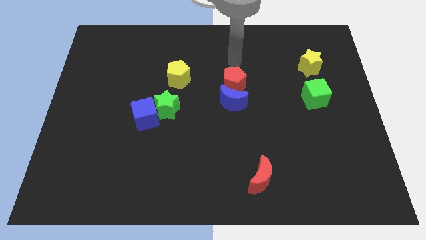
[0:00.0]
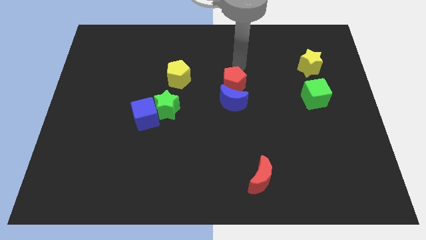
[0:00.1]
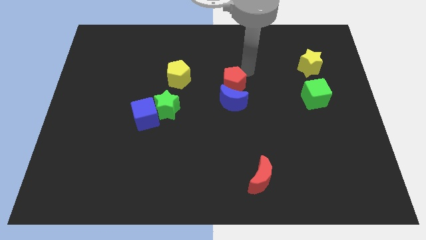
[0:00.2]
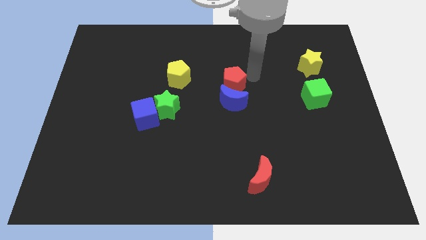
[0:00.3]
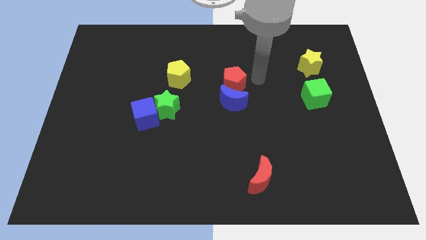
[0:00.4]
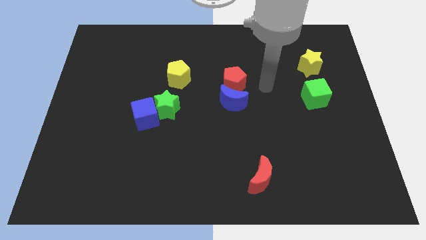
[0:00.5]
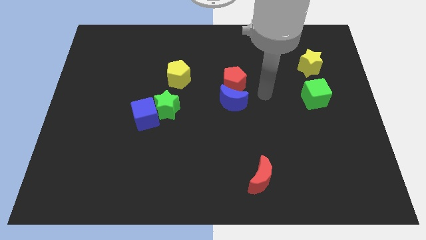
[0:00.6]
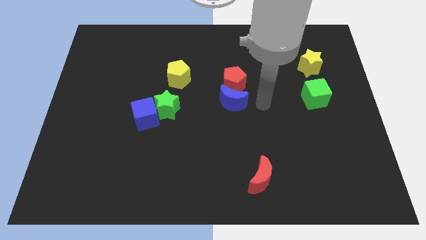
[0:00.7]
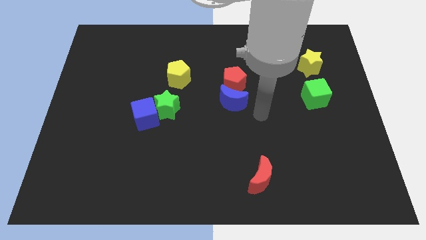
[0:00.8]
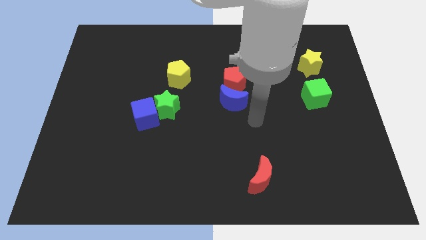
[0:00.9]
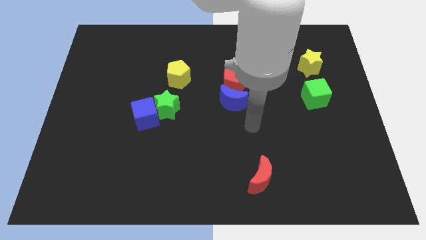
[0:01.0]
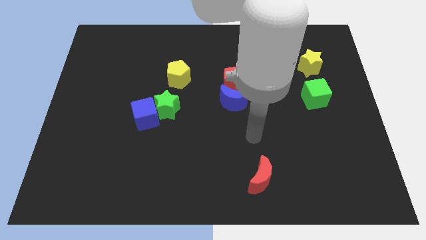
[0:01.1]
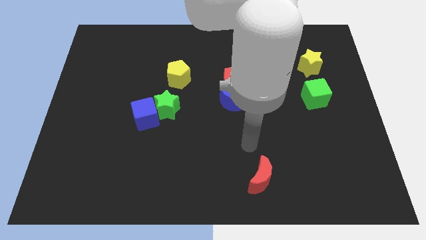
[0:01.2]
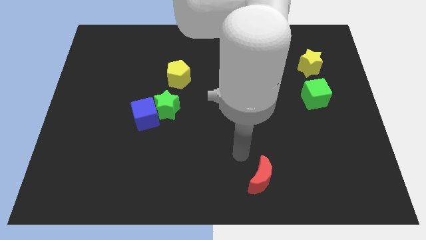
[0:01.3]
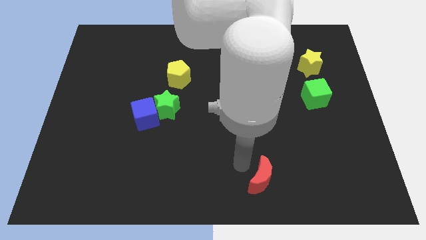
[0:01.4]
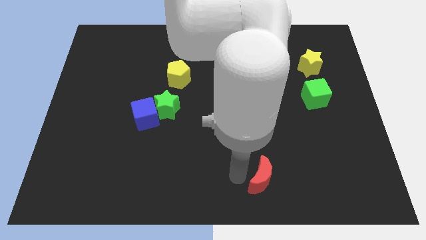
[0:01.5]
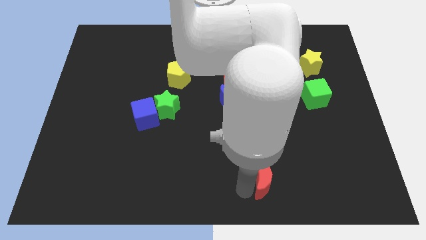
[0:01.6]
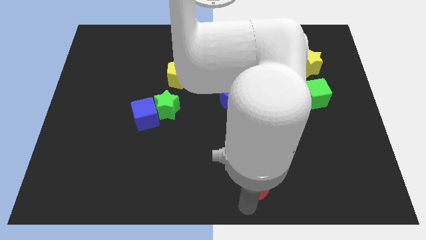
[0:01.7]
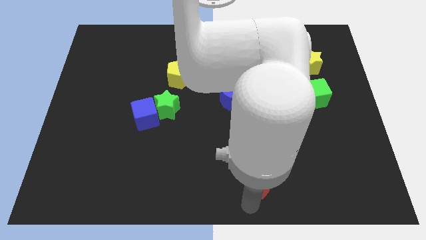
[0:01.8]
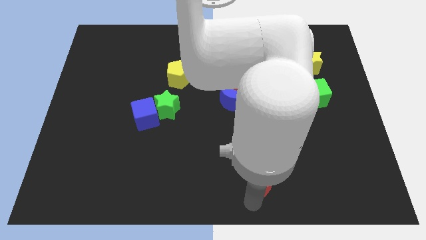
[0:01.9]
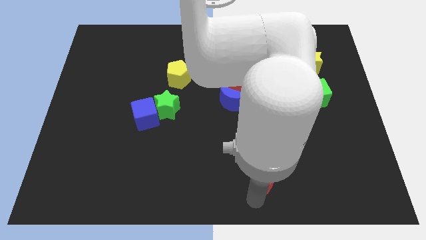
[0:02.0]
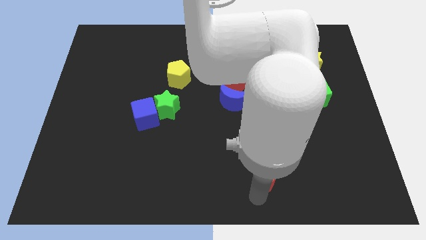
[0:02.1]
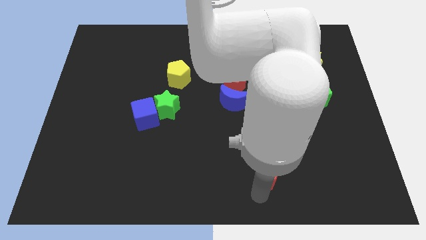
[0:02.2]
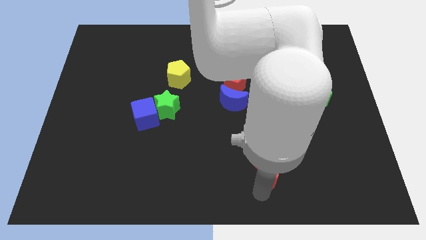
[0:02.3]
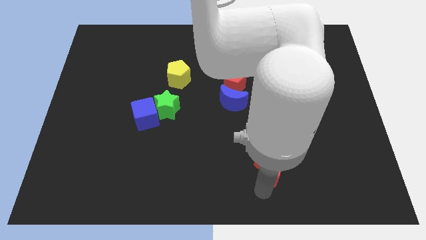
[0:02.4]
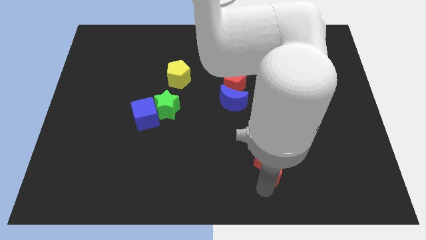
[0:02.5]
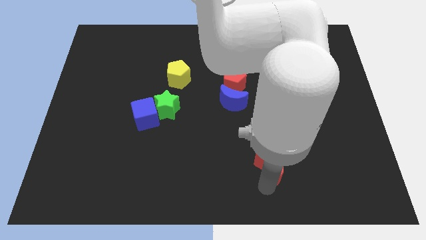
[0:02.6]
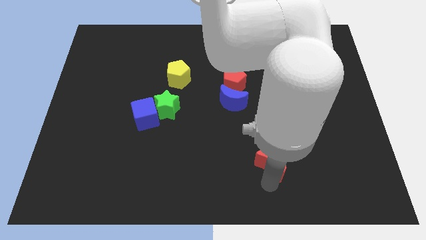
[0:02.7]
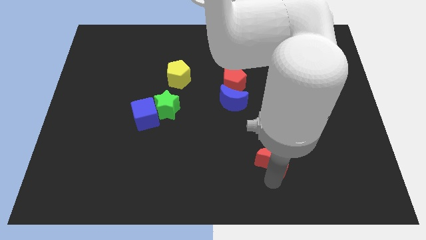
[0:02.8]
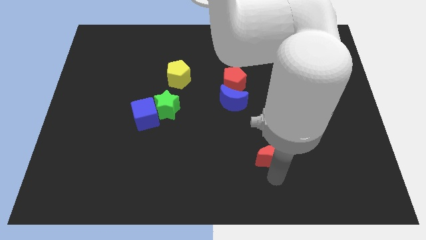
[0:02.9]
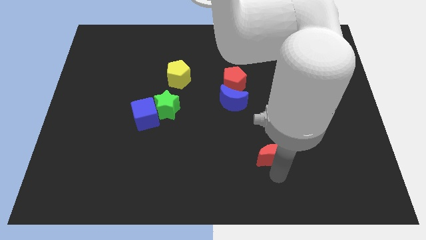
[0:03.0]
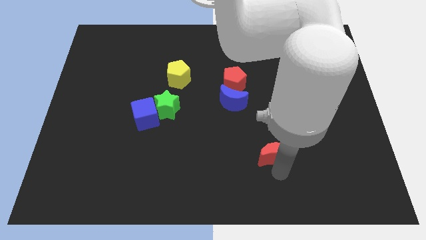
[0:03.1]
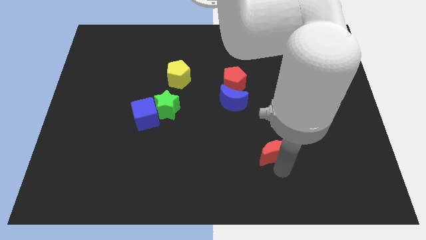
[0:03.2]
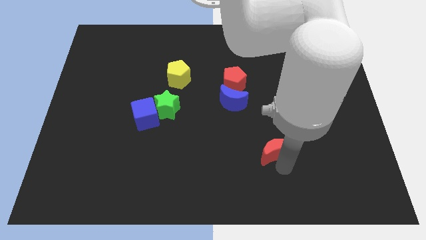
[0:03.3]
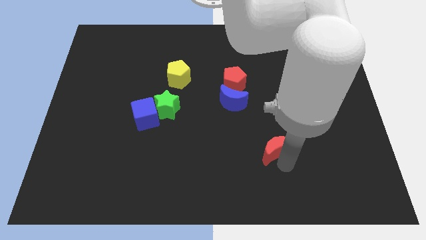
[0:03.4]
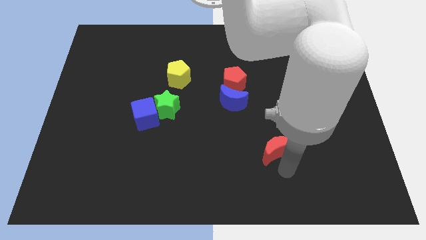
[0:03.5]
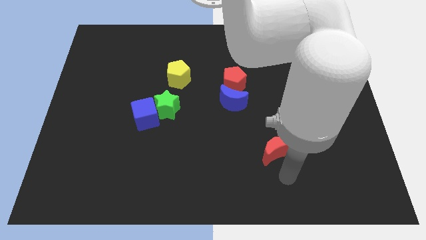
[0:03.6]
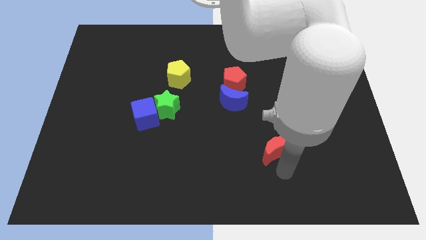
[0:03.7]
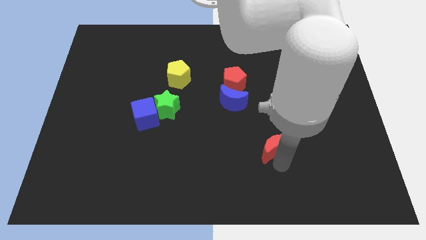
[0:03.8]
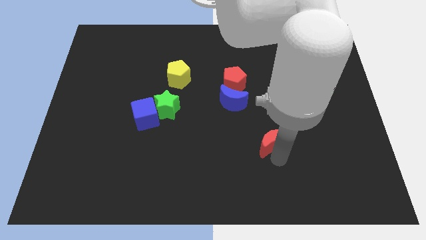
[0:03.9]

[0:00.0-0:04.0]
move the red moon somewhat upwards

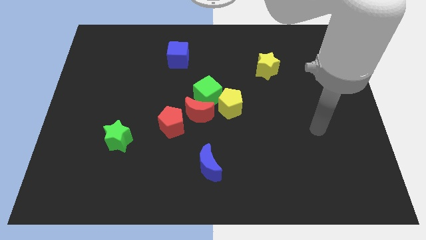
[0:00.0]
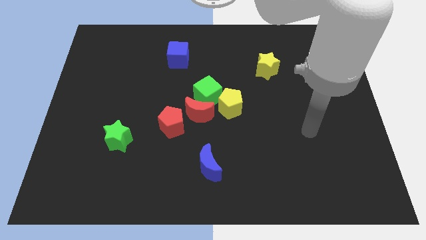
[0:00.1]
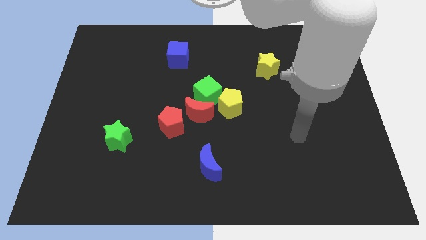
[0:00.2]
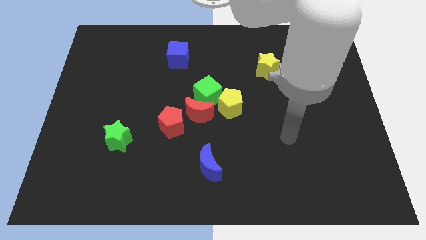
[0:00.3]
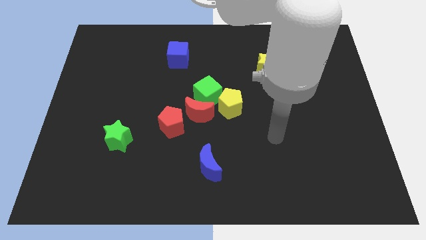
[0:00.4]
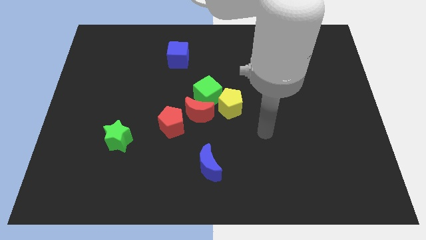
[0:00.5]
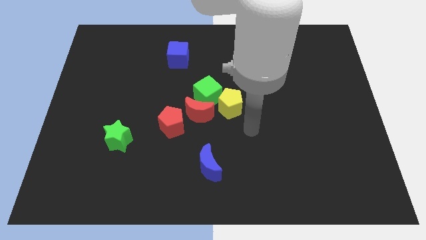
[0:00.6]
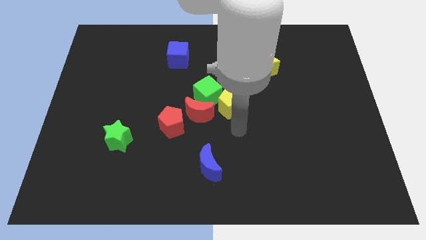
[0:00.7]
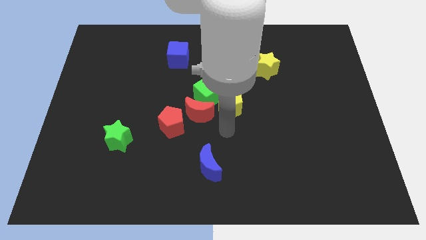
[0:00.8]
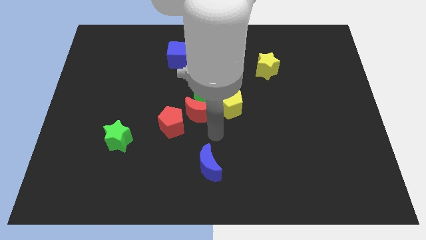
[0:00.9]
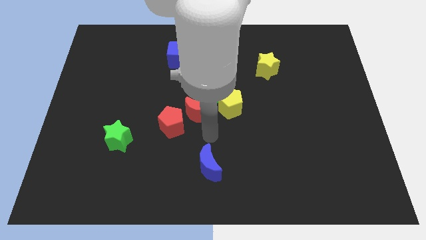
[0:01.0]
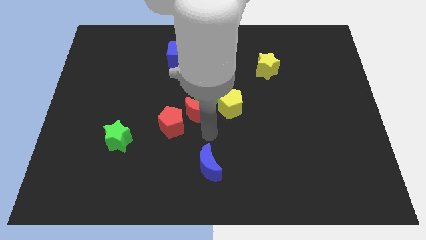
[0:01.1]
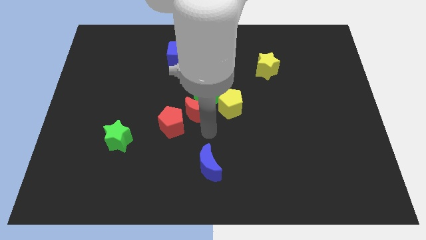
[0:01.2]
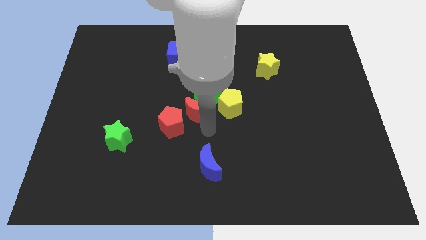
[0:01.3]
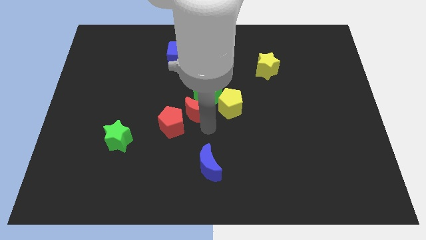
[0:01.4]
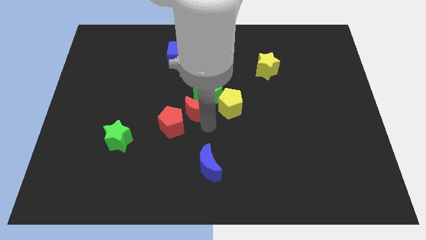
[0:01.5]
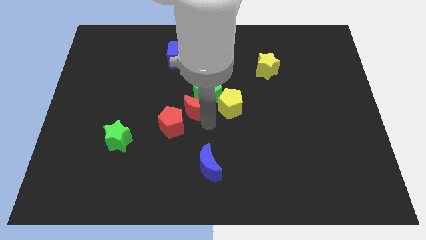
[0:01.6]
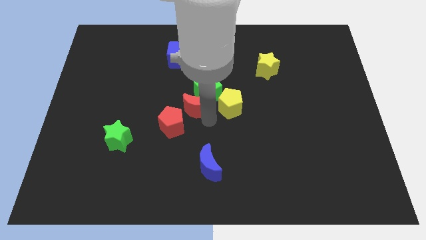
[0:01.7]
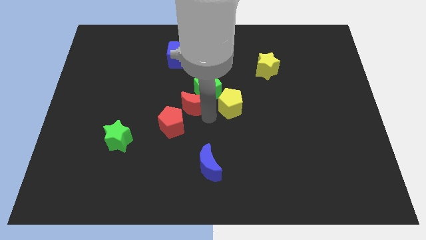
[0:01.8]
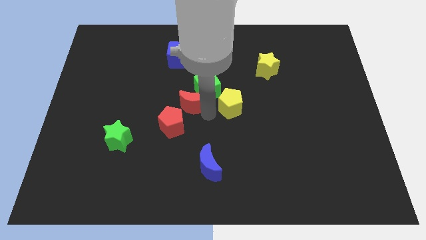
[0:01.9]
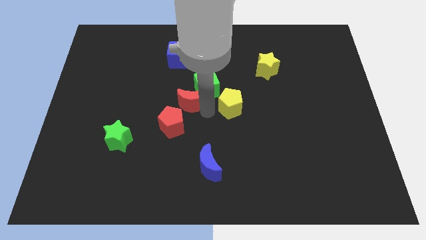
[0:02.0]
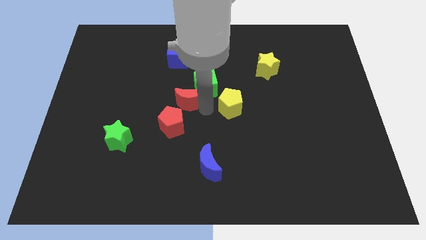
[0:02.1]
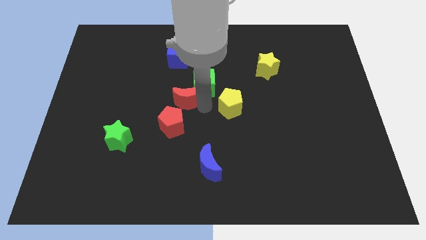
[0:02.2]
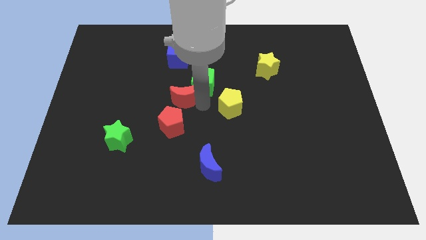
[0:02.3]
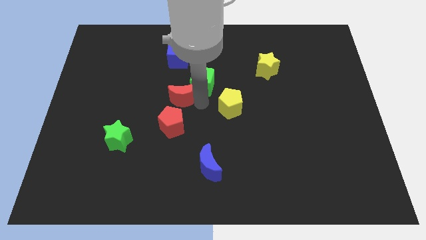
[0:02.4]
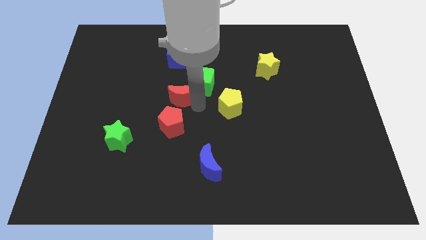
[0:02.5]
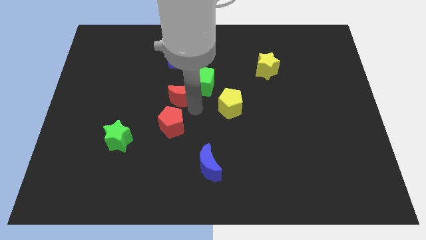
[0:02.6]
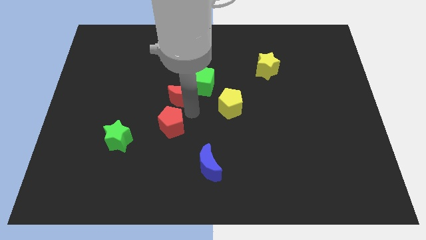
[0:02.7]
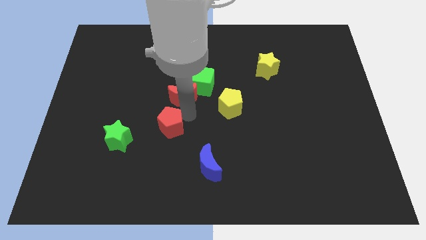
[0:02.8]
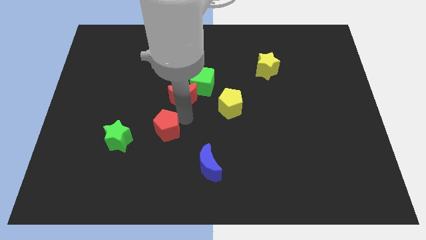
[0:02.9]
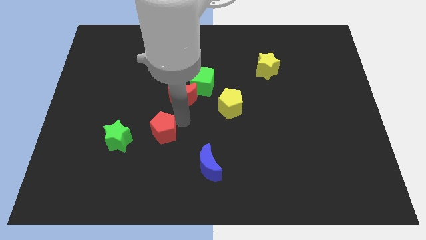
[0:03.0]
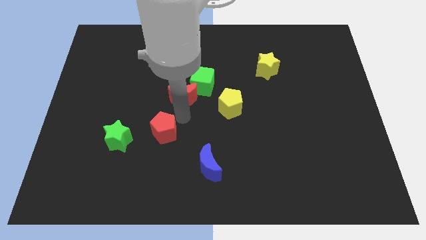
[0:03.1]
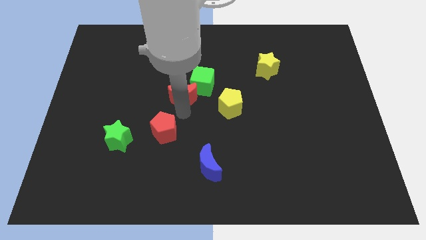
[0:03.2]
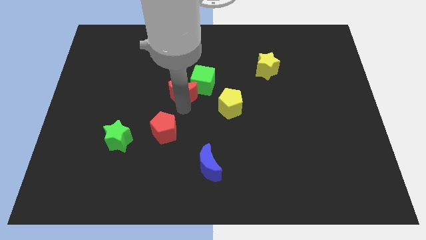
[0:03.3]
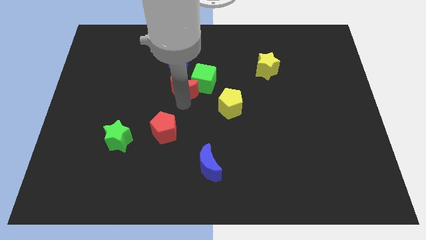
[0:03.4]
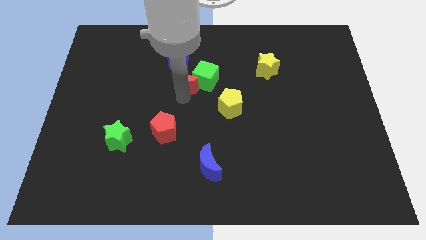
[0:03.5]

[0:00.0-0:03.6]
move the red moon slightly upwards

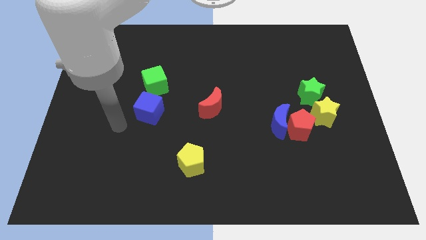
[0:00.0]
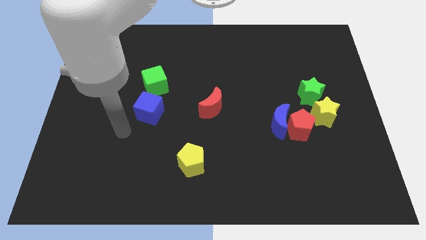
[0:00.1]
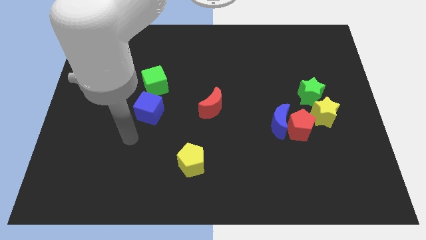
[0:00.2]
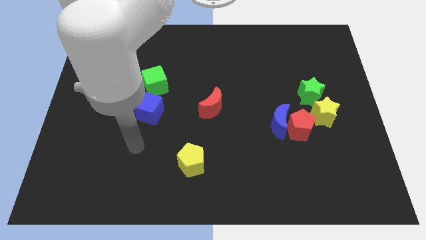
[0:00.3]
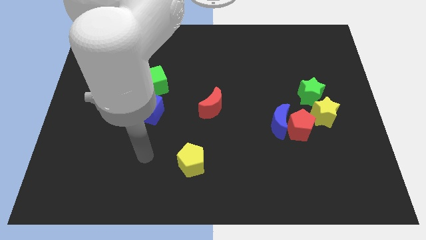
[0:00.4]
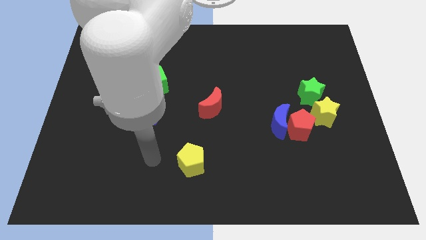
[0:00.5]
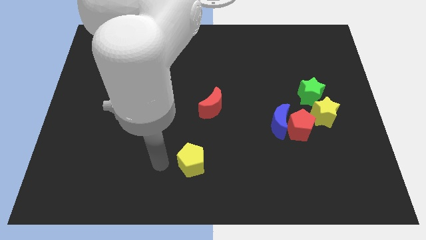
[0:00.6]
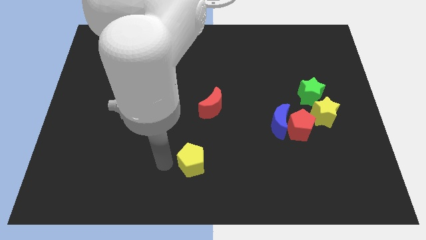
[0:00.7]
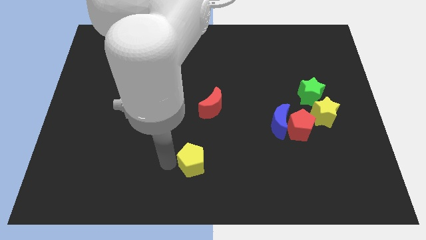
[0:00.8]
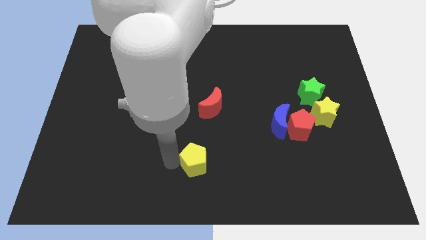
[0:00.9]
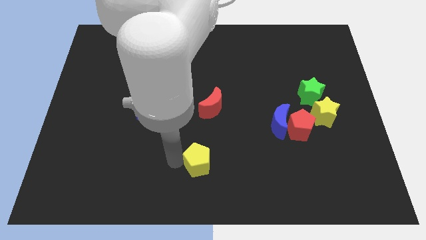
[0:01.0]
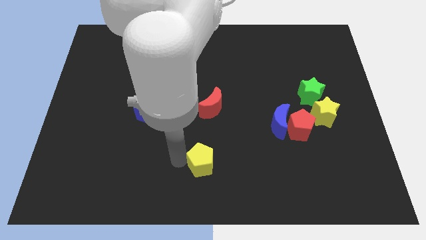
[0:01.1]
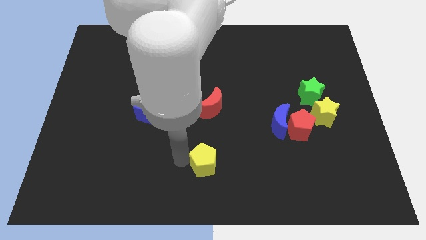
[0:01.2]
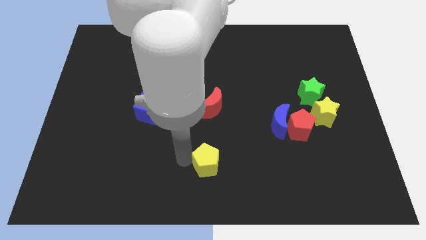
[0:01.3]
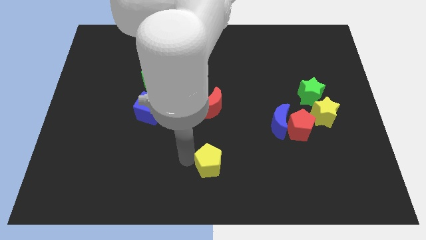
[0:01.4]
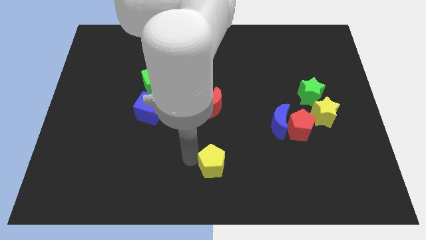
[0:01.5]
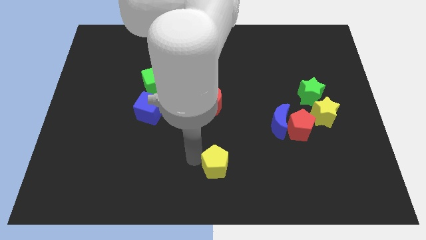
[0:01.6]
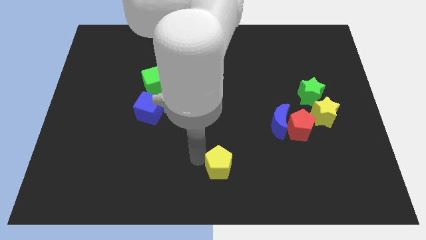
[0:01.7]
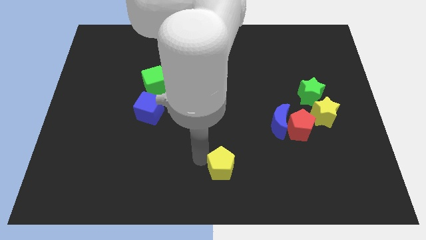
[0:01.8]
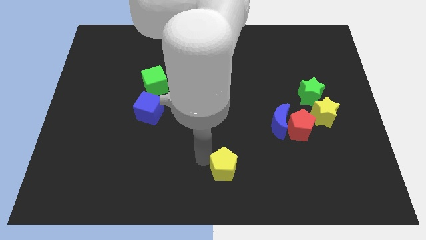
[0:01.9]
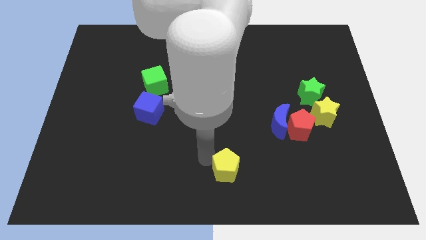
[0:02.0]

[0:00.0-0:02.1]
push the yellow pentagon slightly to the right
